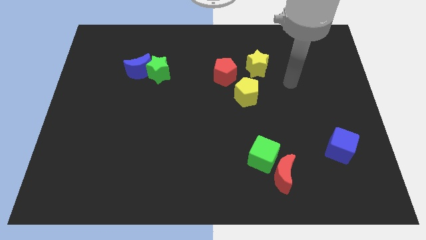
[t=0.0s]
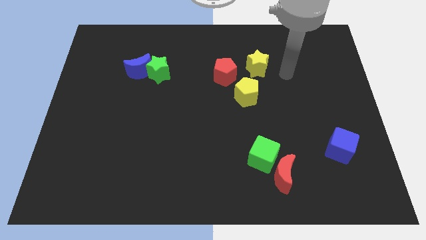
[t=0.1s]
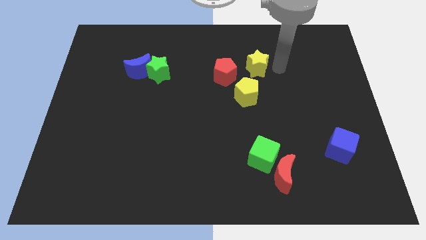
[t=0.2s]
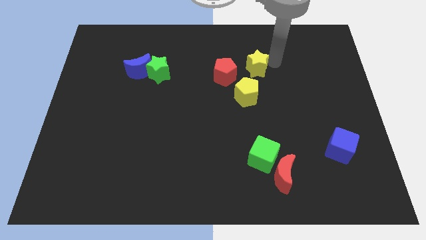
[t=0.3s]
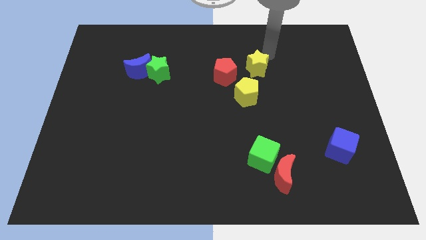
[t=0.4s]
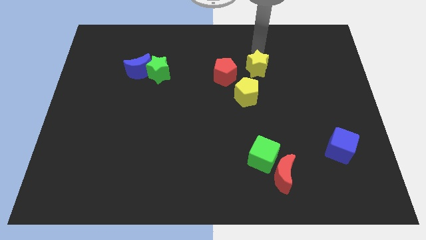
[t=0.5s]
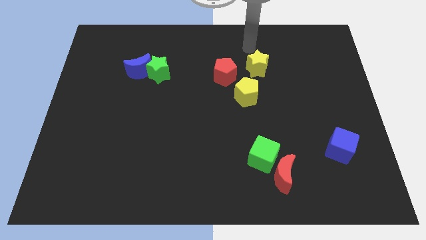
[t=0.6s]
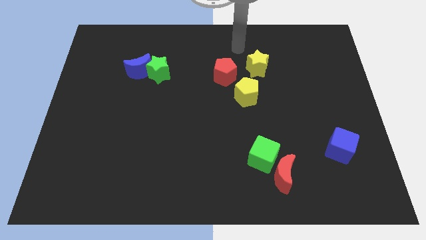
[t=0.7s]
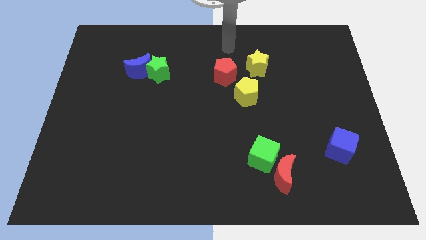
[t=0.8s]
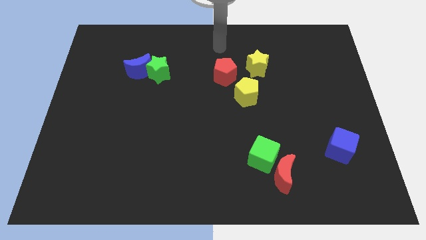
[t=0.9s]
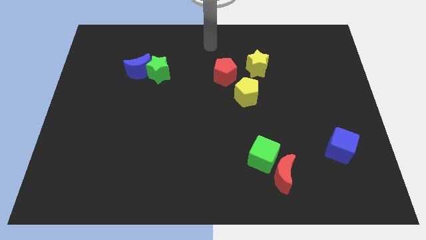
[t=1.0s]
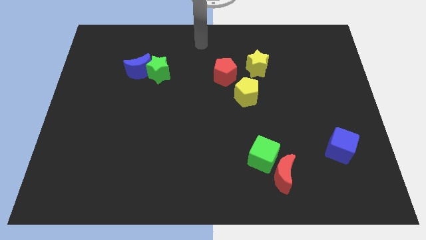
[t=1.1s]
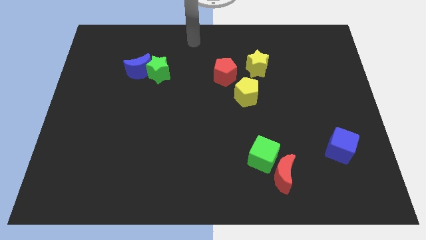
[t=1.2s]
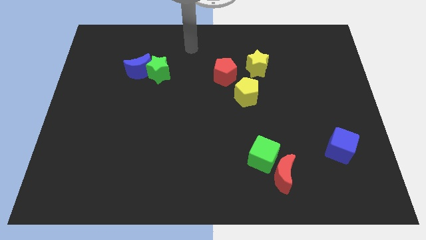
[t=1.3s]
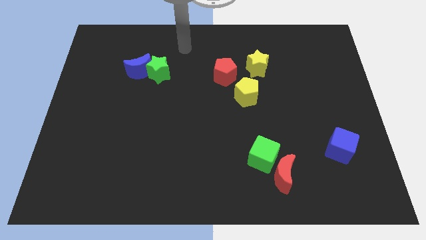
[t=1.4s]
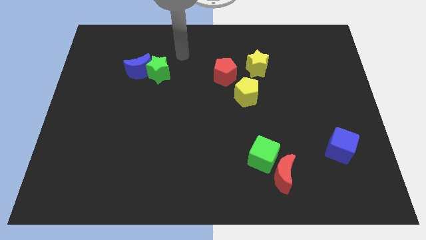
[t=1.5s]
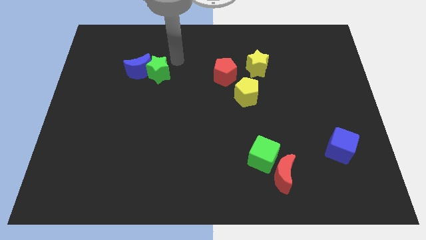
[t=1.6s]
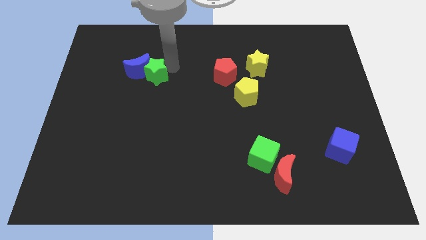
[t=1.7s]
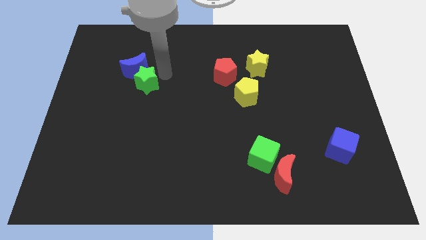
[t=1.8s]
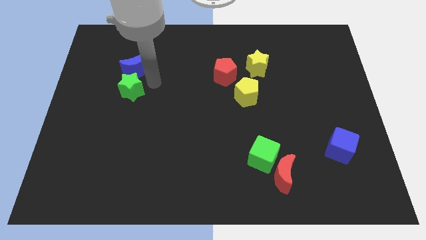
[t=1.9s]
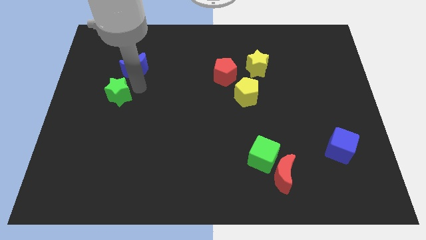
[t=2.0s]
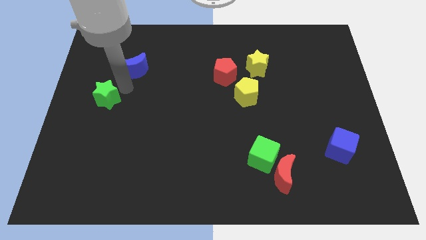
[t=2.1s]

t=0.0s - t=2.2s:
move the blue moon away from the green star

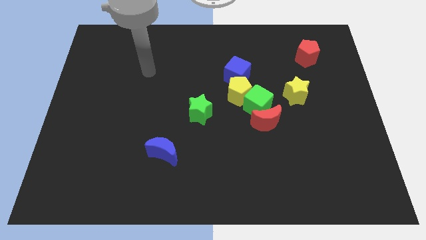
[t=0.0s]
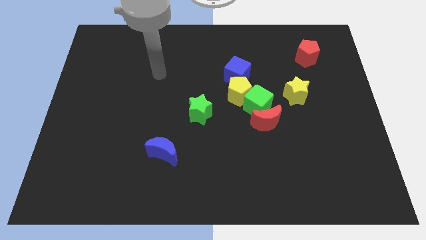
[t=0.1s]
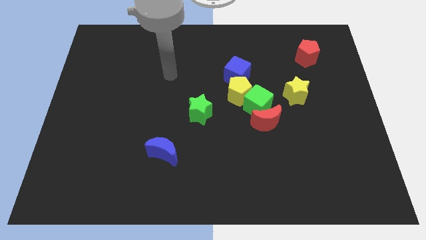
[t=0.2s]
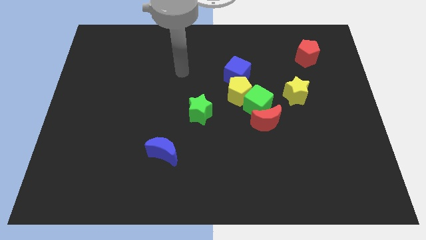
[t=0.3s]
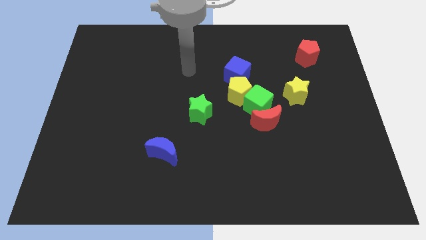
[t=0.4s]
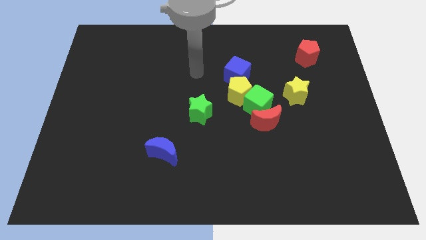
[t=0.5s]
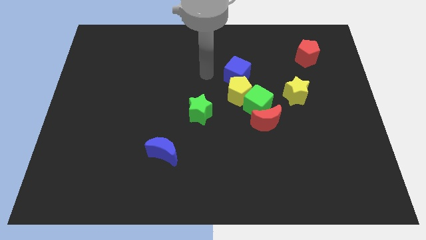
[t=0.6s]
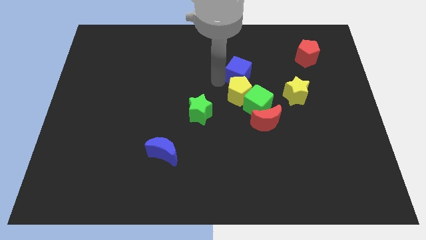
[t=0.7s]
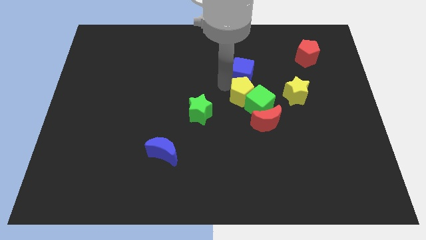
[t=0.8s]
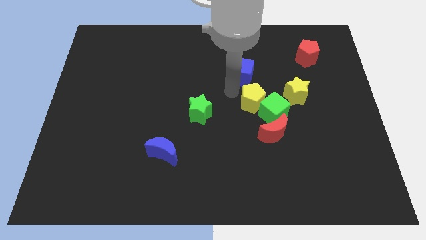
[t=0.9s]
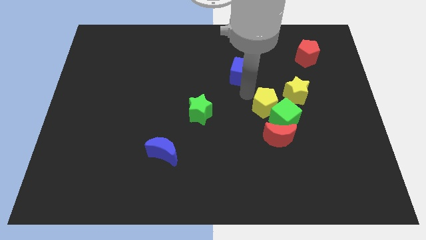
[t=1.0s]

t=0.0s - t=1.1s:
pull the blue cube apart from the yellow pentagon

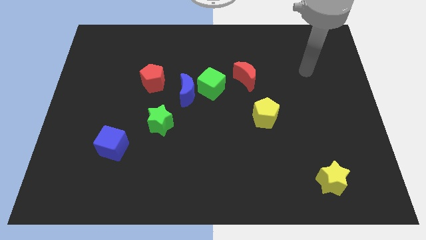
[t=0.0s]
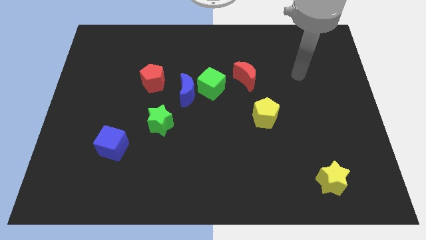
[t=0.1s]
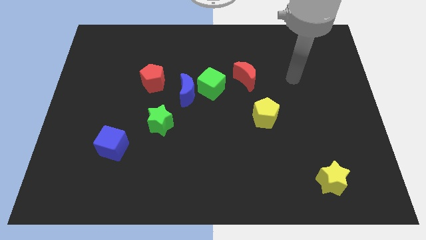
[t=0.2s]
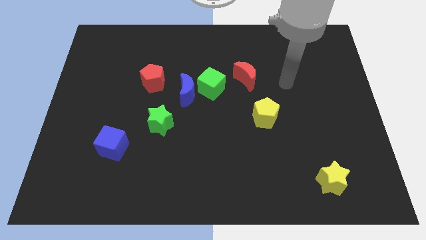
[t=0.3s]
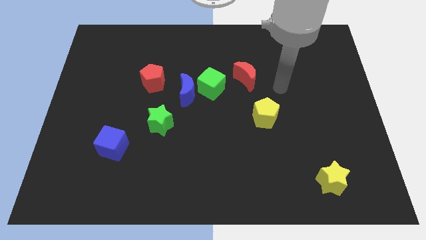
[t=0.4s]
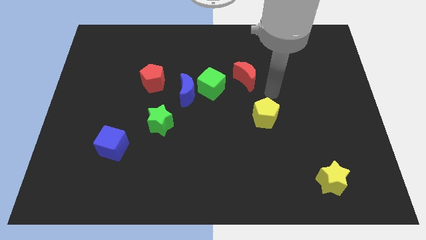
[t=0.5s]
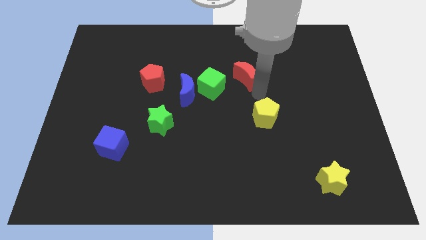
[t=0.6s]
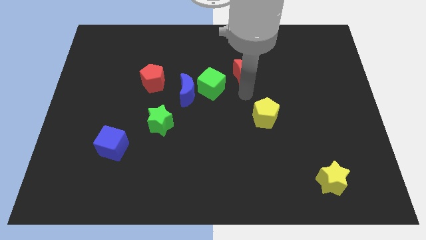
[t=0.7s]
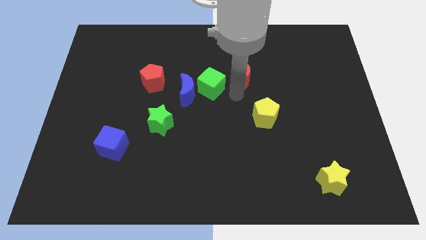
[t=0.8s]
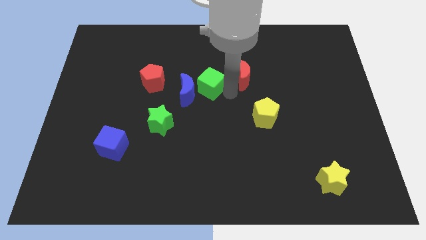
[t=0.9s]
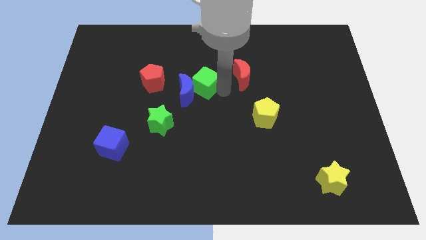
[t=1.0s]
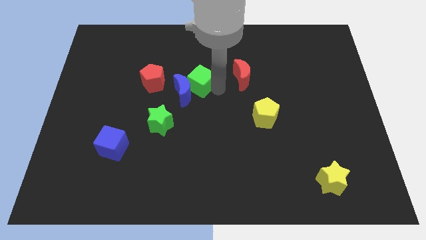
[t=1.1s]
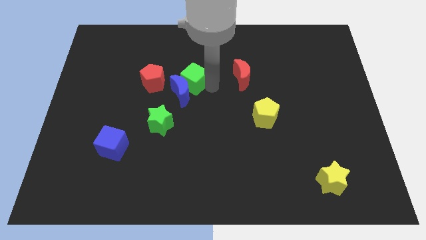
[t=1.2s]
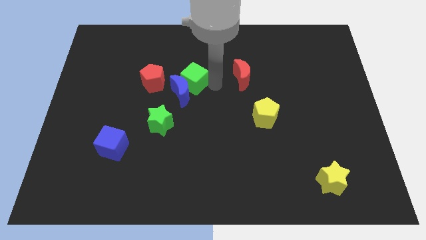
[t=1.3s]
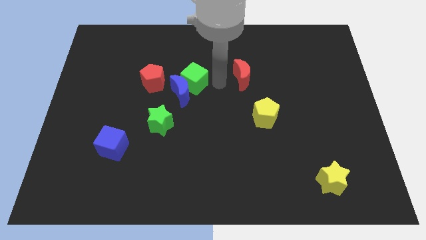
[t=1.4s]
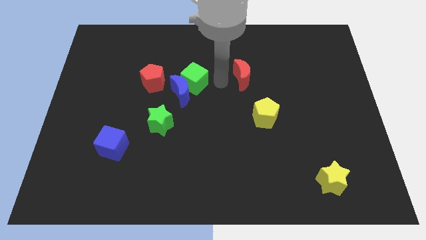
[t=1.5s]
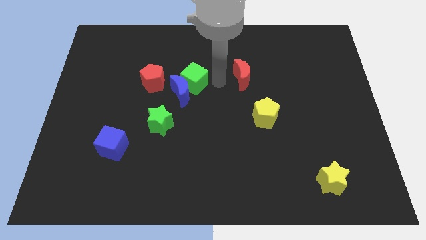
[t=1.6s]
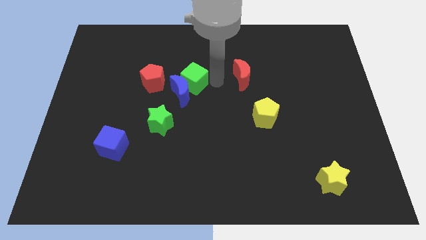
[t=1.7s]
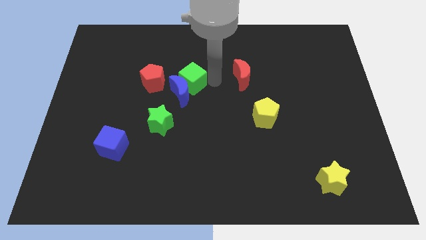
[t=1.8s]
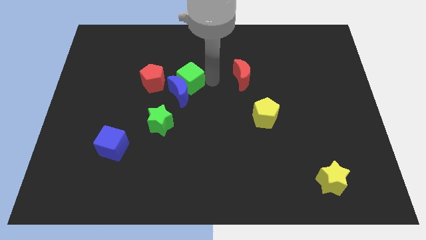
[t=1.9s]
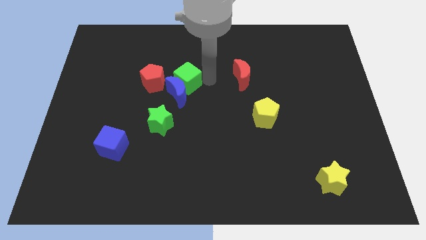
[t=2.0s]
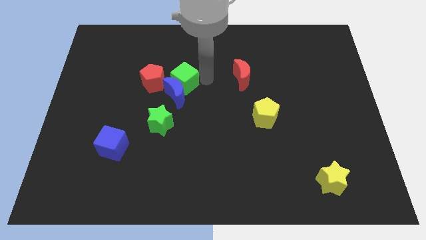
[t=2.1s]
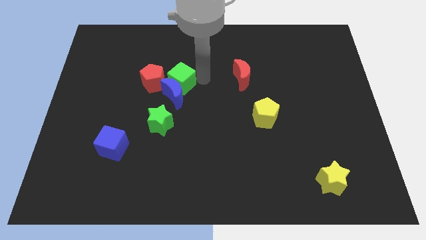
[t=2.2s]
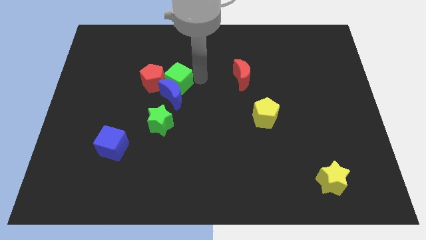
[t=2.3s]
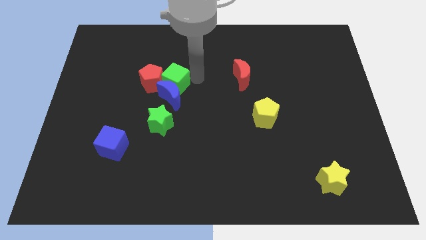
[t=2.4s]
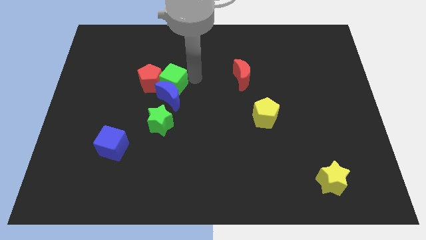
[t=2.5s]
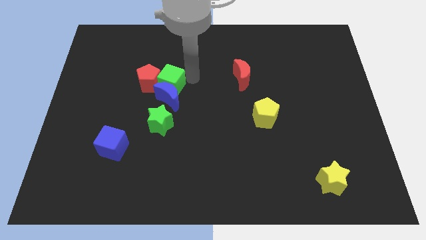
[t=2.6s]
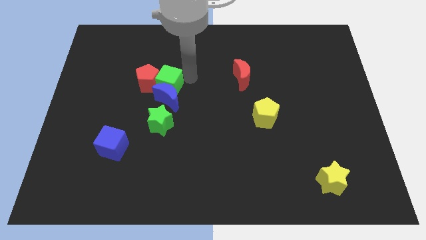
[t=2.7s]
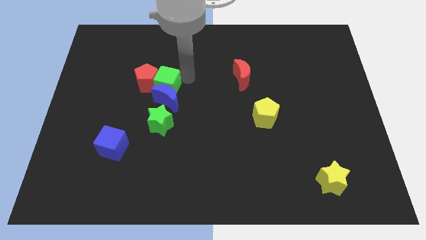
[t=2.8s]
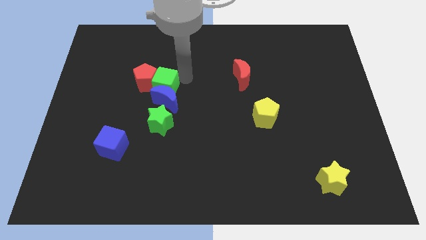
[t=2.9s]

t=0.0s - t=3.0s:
pull the green cube apart from the blue moon and red moon

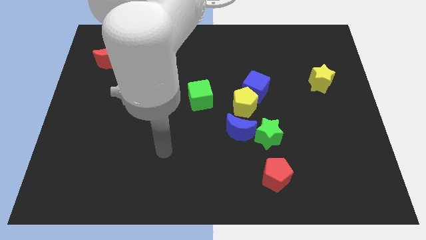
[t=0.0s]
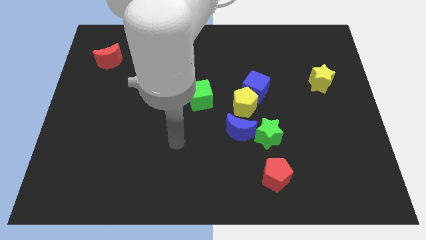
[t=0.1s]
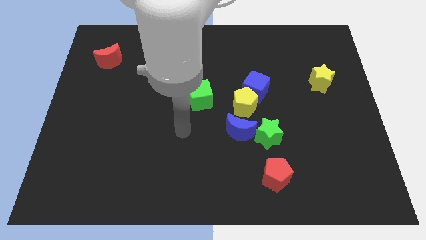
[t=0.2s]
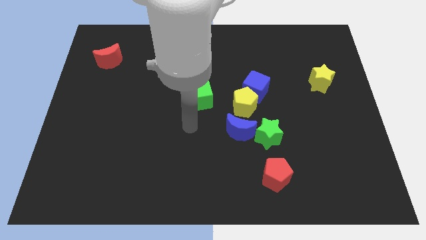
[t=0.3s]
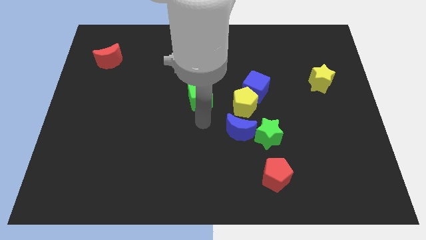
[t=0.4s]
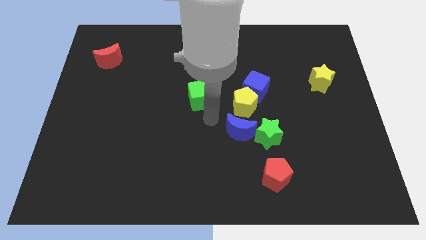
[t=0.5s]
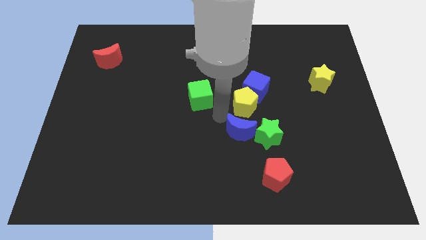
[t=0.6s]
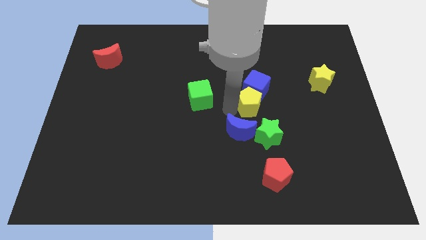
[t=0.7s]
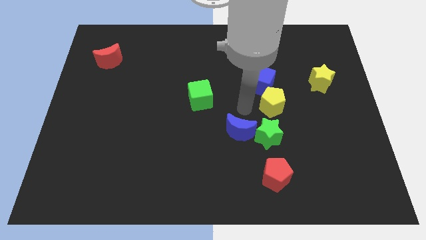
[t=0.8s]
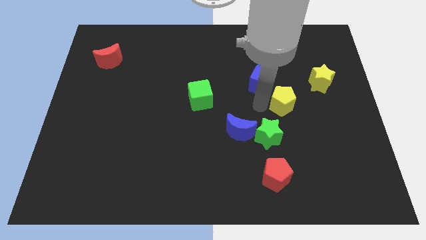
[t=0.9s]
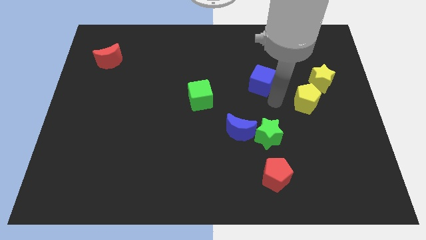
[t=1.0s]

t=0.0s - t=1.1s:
move the blue cube away from the yellow pentagon

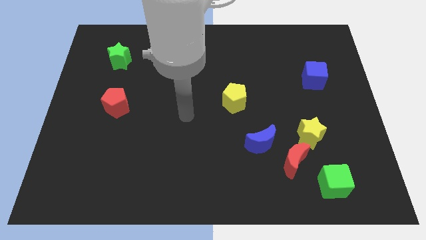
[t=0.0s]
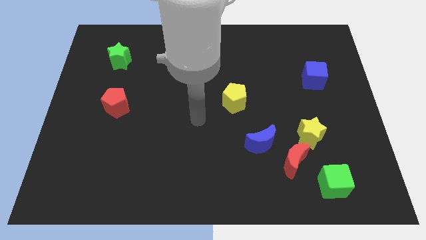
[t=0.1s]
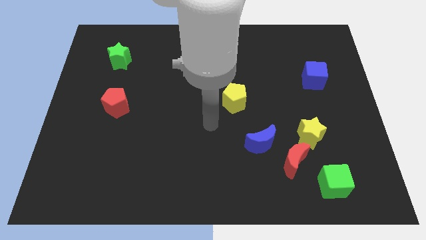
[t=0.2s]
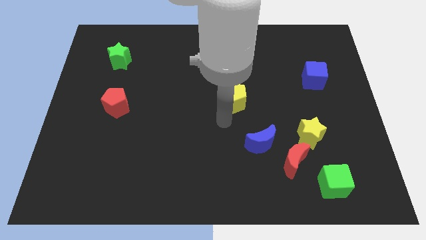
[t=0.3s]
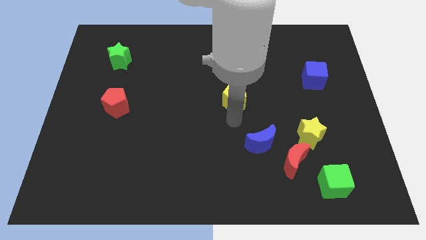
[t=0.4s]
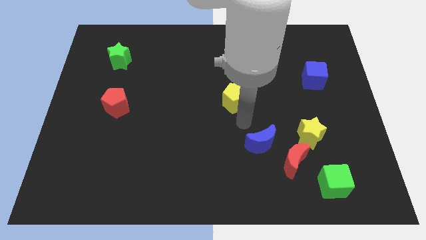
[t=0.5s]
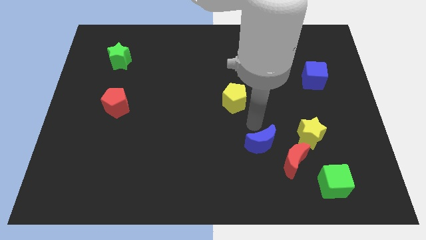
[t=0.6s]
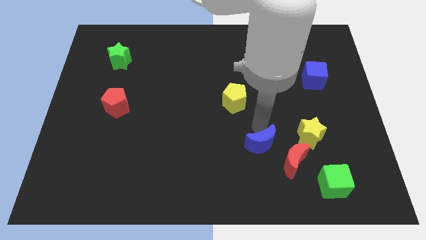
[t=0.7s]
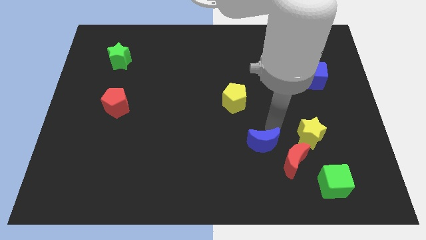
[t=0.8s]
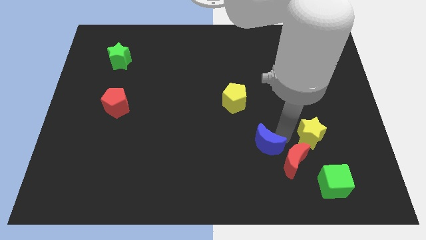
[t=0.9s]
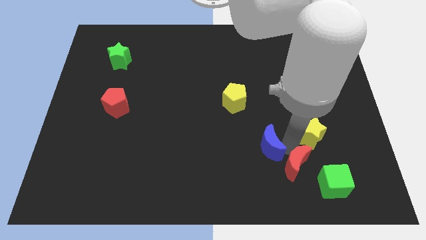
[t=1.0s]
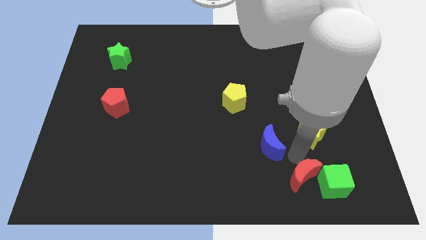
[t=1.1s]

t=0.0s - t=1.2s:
move the yellow star away from the red moon

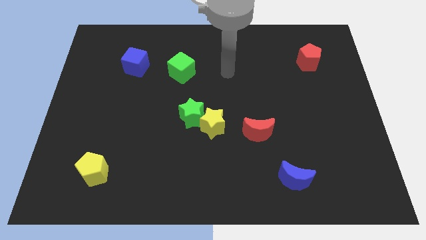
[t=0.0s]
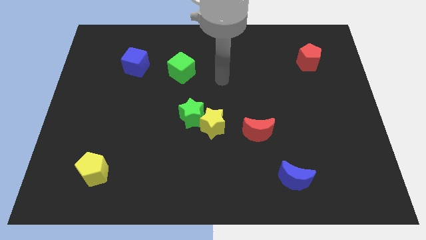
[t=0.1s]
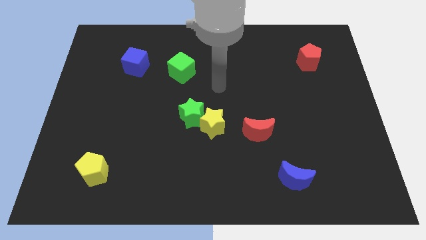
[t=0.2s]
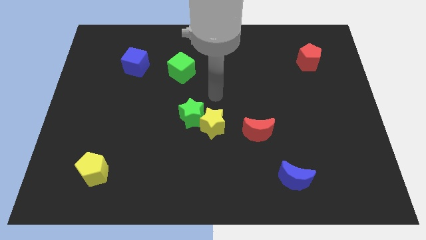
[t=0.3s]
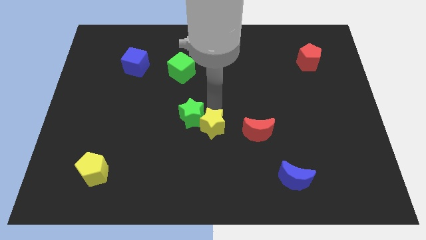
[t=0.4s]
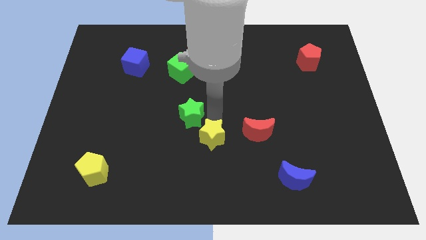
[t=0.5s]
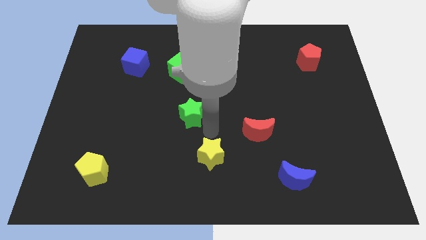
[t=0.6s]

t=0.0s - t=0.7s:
move the green star away from the yellow star

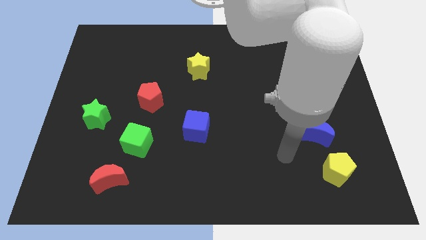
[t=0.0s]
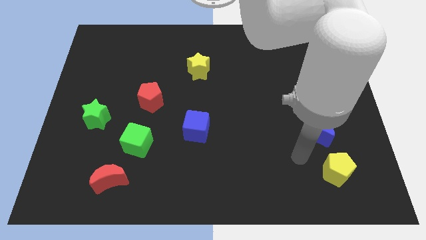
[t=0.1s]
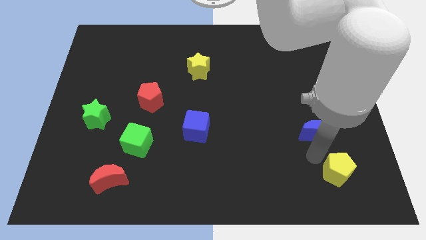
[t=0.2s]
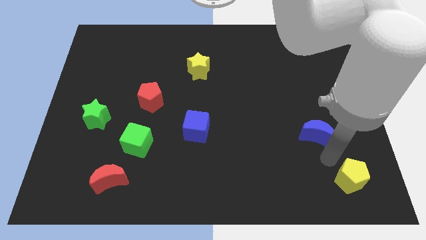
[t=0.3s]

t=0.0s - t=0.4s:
move the blue moon away from the yellow pentagon
